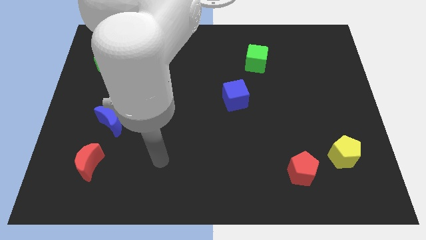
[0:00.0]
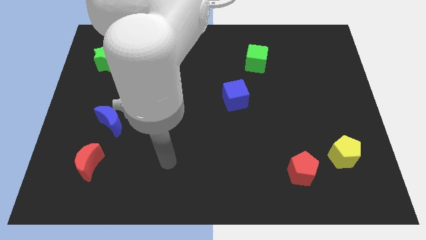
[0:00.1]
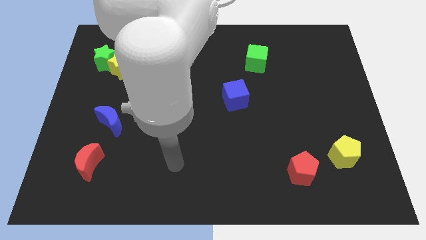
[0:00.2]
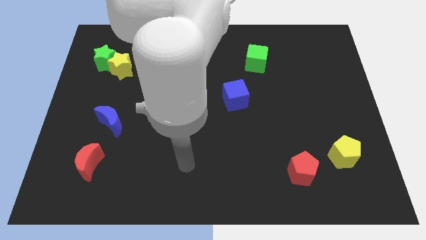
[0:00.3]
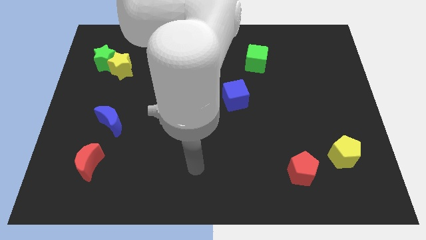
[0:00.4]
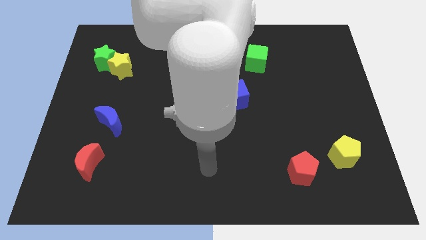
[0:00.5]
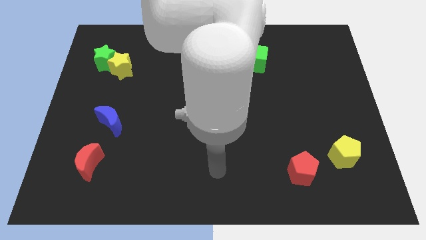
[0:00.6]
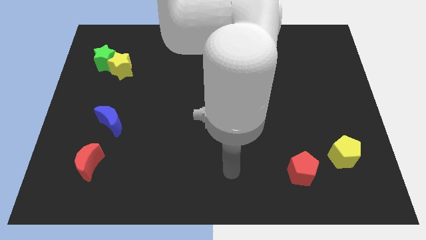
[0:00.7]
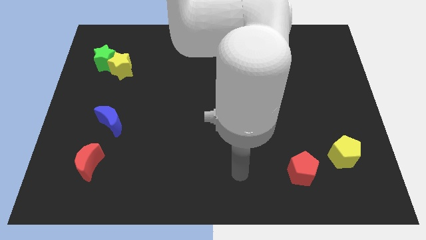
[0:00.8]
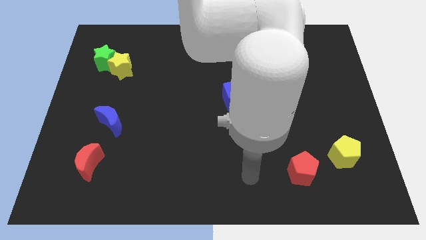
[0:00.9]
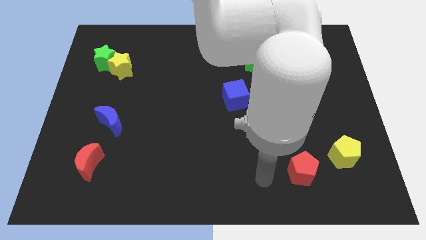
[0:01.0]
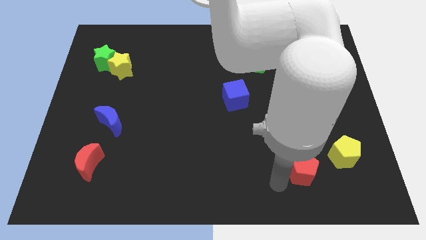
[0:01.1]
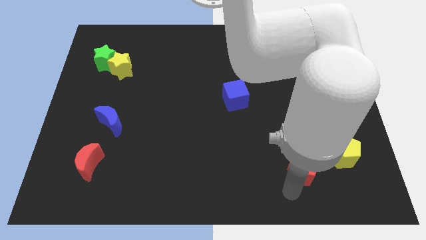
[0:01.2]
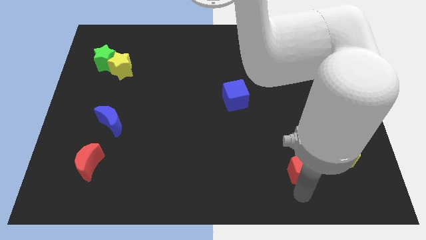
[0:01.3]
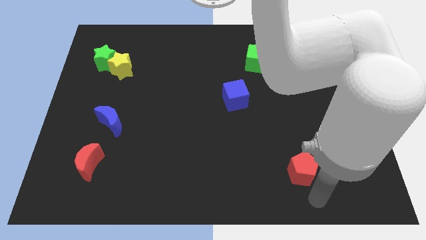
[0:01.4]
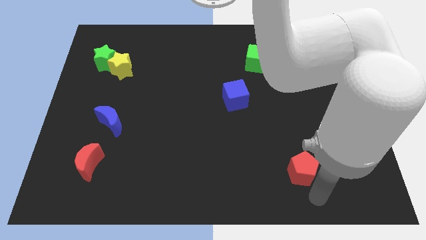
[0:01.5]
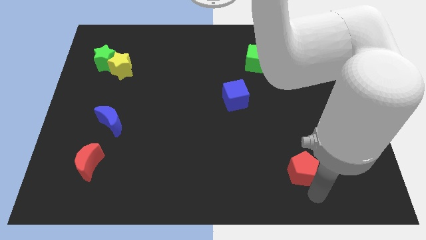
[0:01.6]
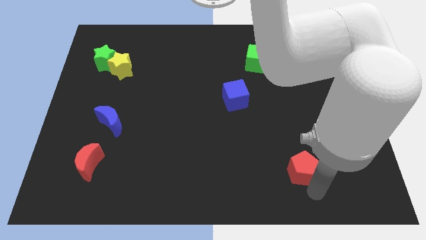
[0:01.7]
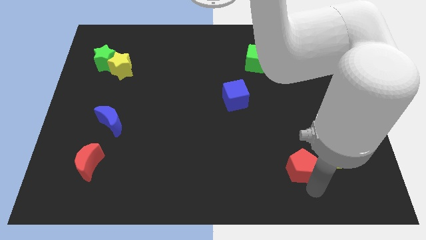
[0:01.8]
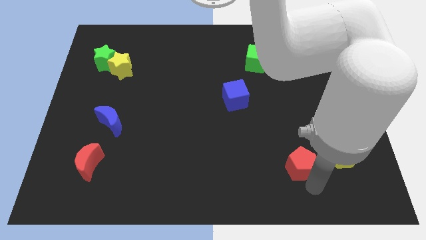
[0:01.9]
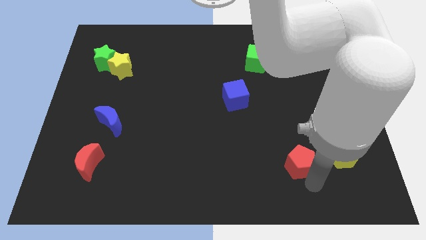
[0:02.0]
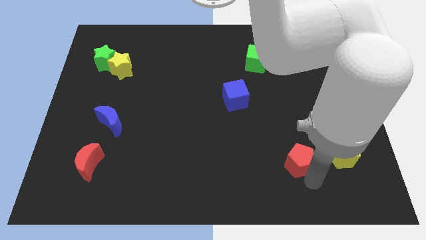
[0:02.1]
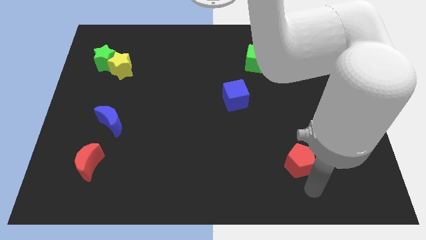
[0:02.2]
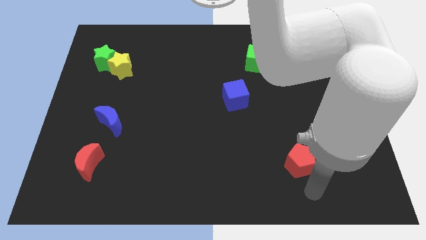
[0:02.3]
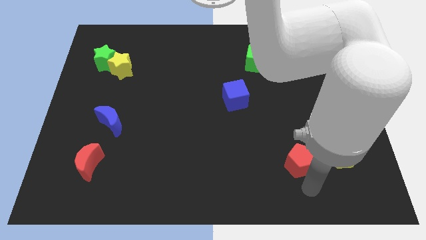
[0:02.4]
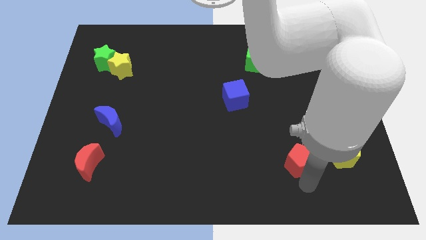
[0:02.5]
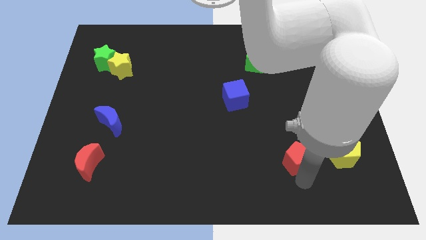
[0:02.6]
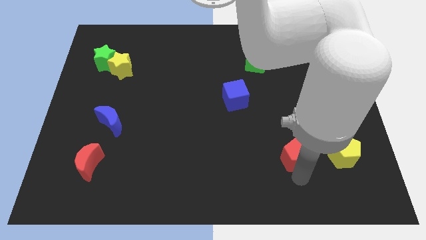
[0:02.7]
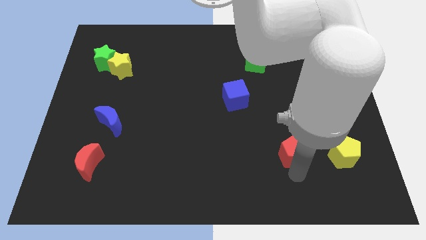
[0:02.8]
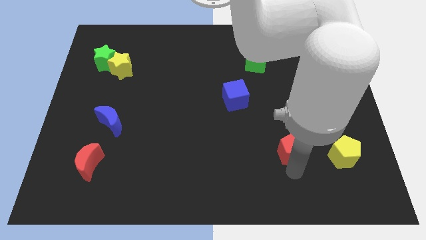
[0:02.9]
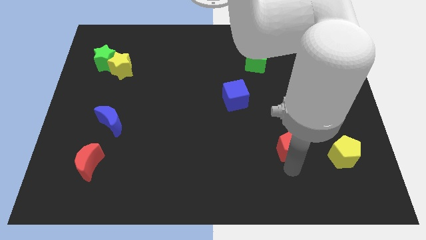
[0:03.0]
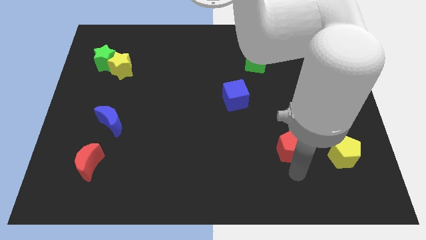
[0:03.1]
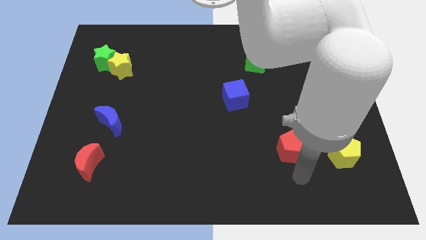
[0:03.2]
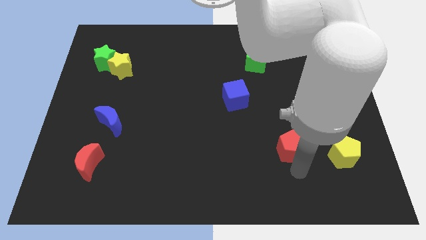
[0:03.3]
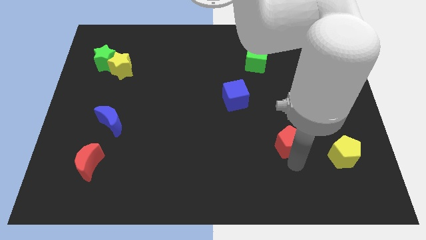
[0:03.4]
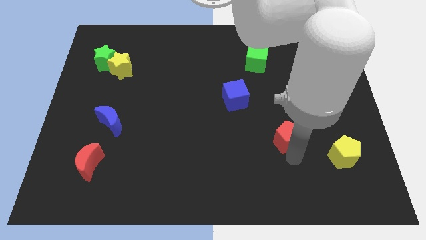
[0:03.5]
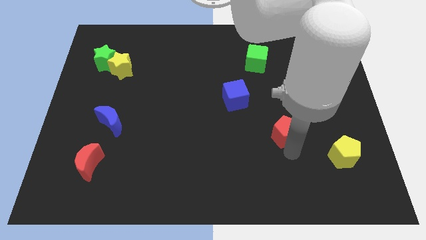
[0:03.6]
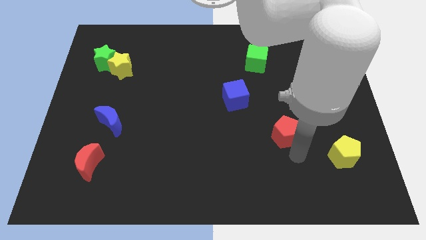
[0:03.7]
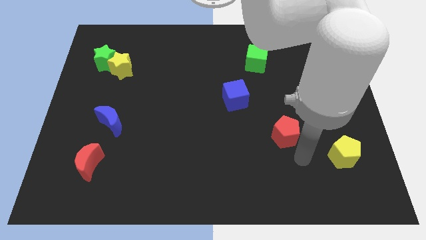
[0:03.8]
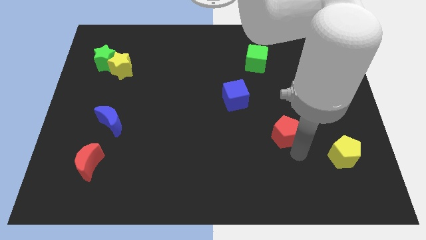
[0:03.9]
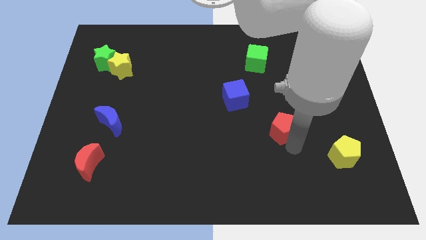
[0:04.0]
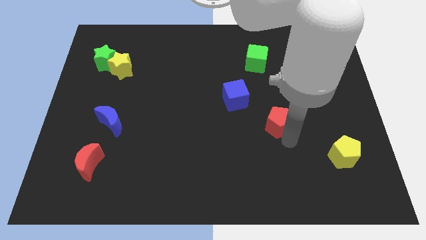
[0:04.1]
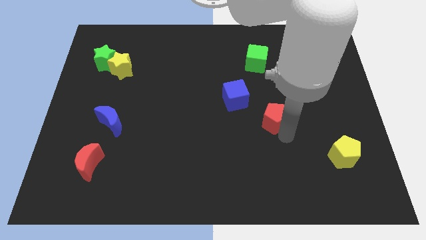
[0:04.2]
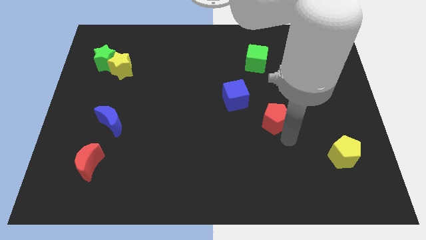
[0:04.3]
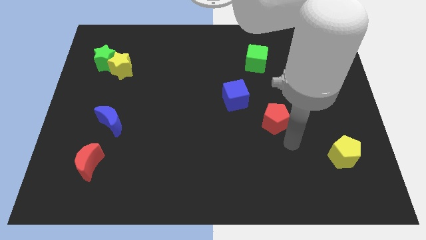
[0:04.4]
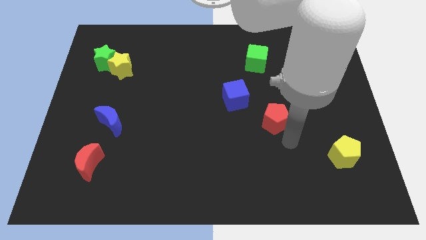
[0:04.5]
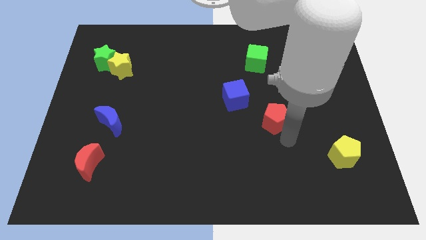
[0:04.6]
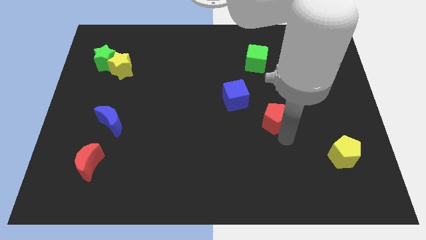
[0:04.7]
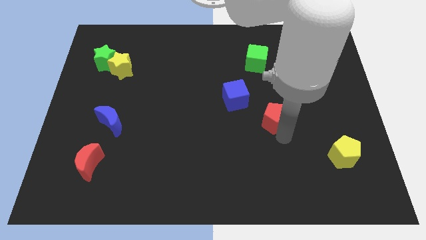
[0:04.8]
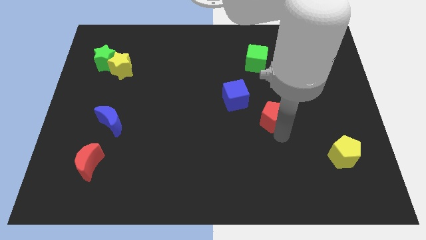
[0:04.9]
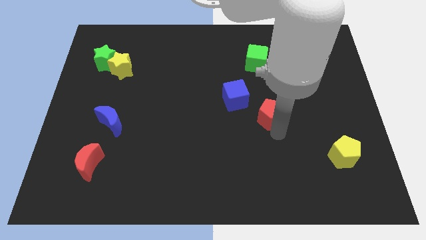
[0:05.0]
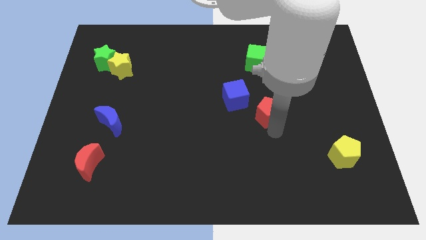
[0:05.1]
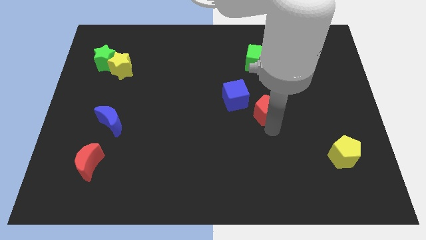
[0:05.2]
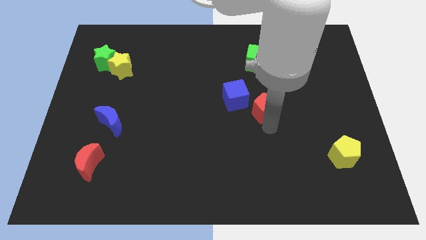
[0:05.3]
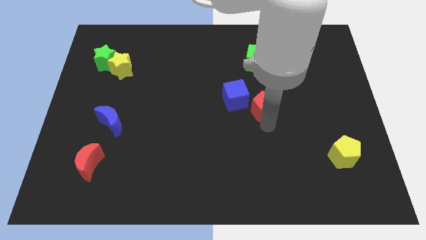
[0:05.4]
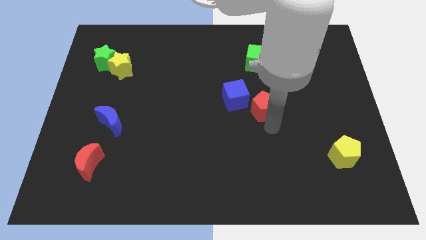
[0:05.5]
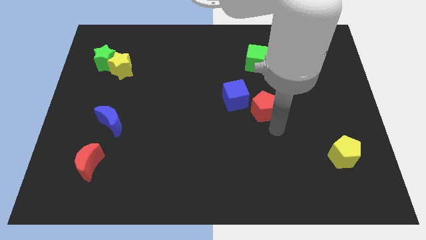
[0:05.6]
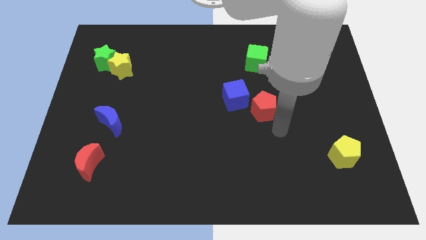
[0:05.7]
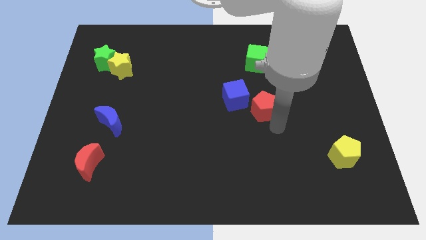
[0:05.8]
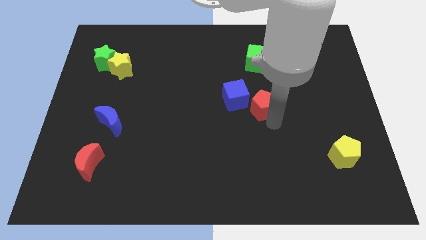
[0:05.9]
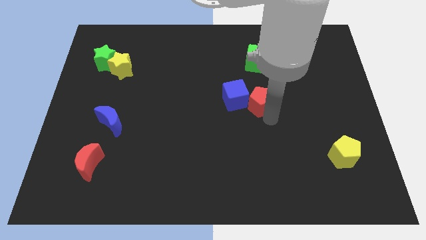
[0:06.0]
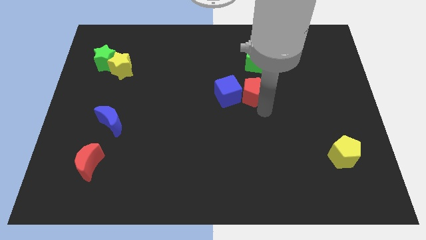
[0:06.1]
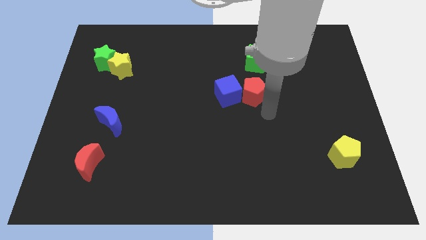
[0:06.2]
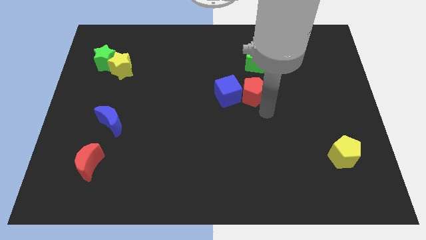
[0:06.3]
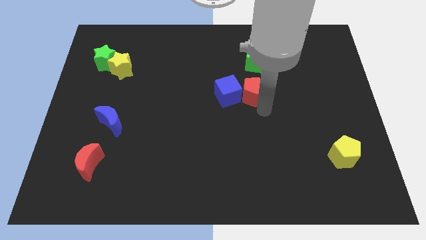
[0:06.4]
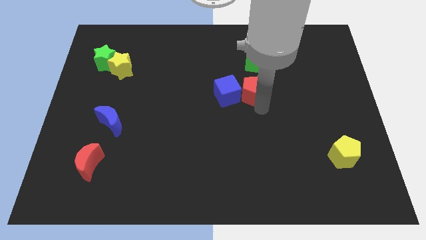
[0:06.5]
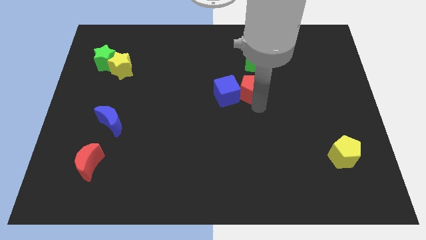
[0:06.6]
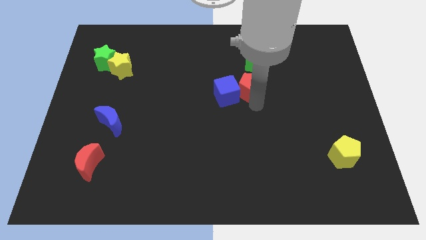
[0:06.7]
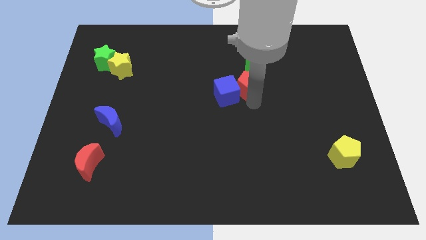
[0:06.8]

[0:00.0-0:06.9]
slide the red pentagon to the bottom left side of the green cube
